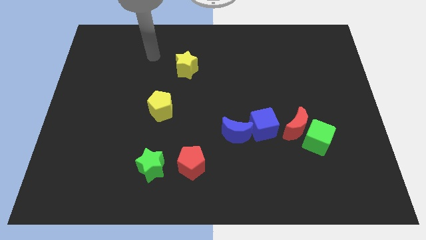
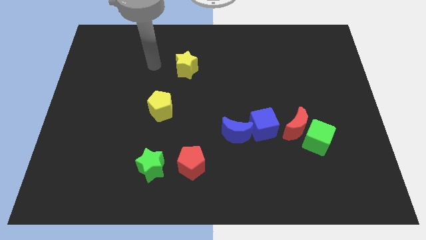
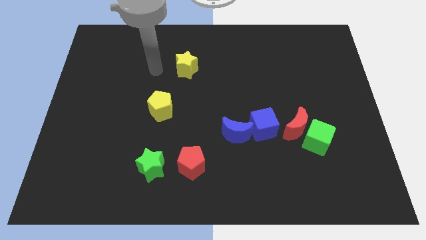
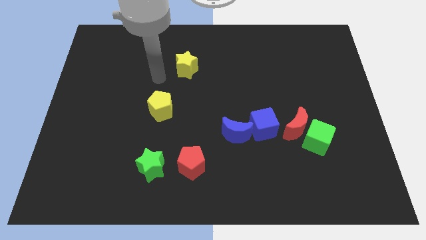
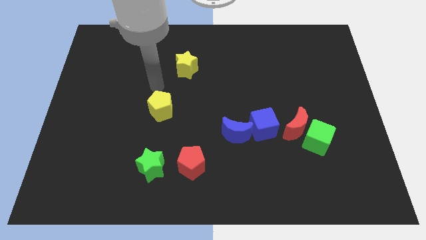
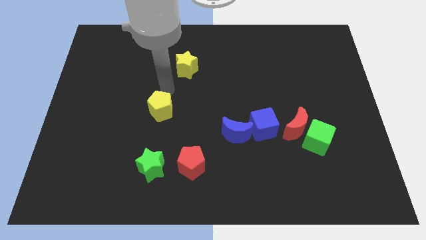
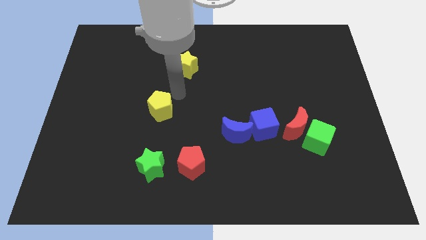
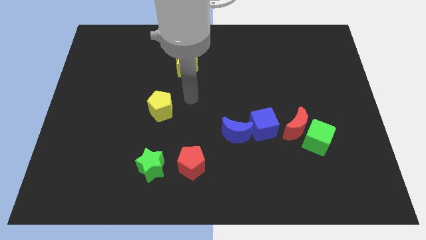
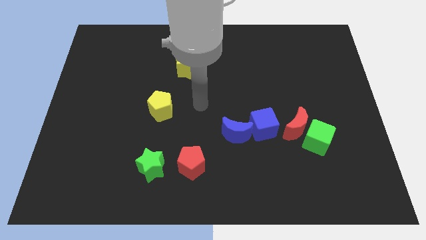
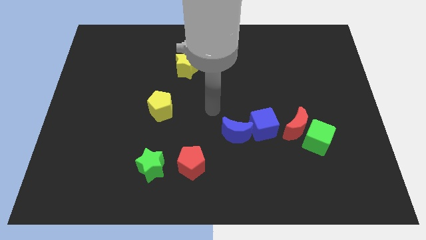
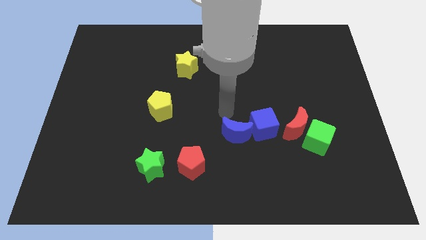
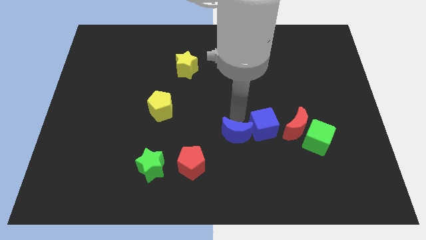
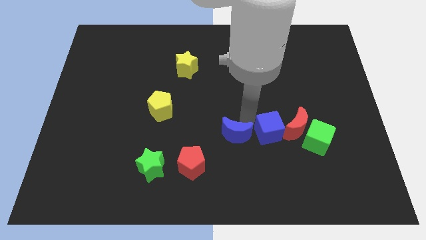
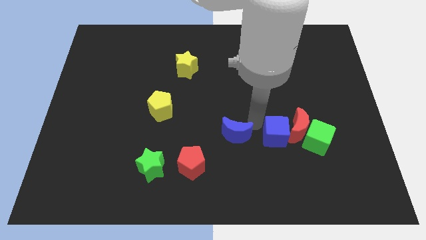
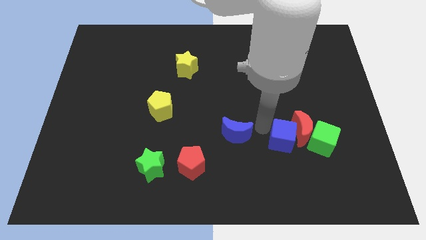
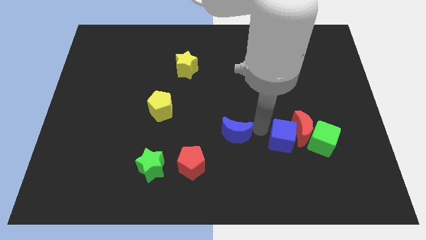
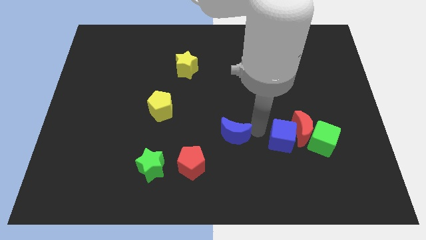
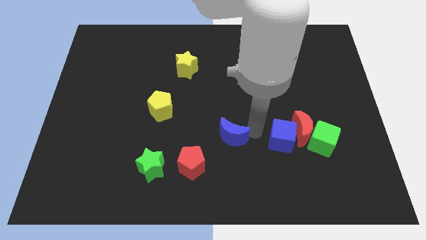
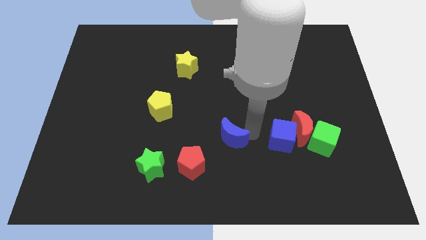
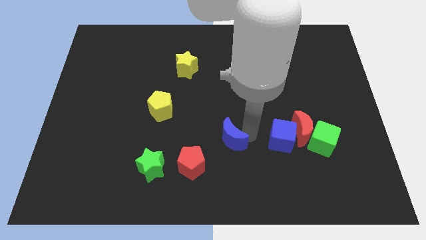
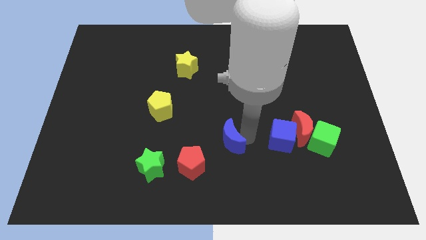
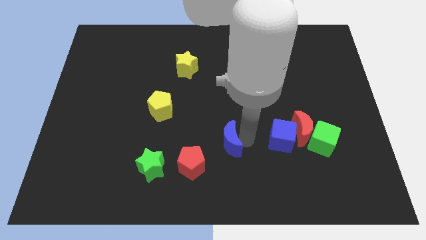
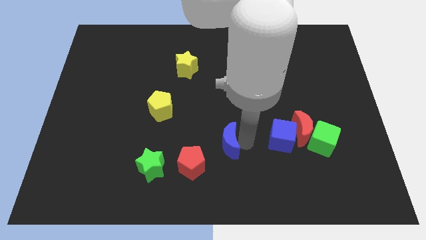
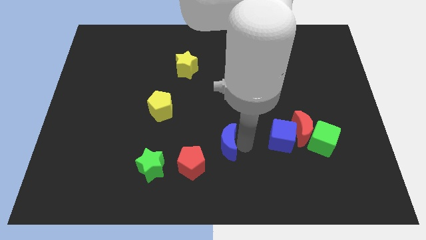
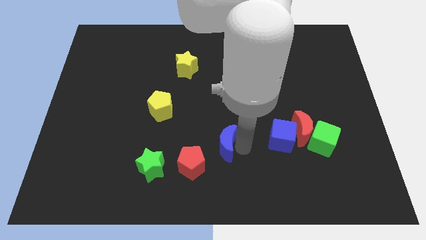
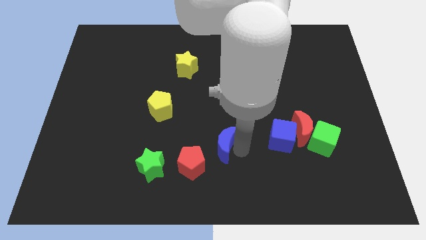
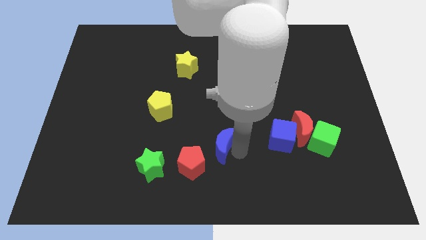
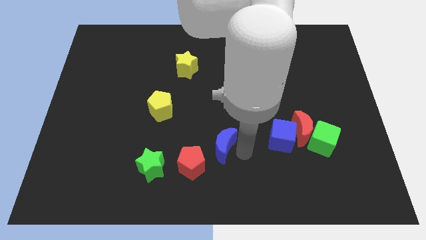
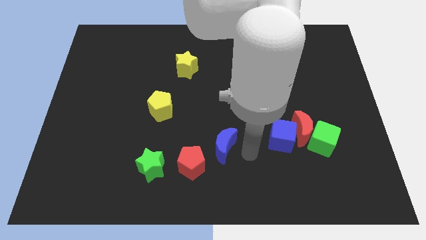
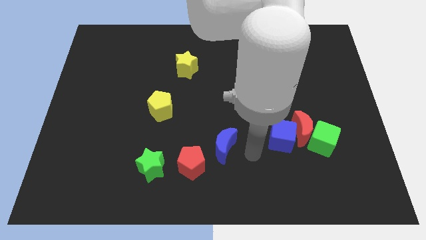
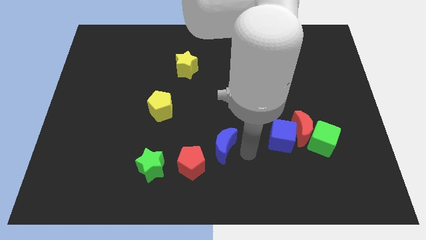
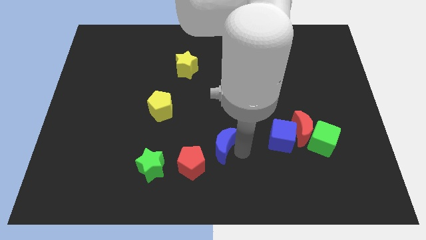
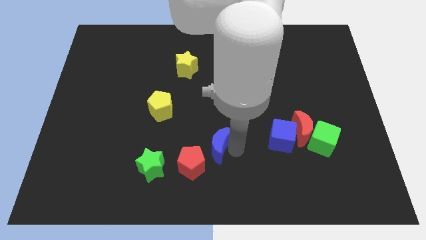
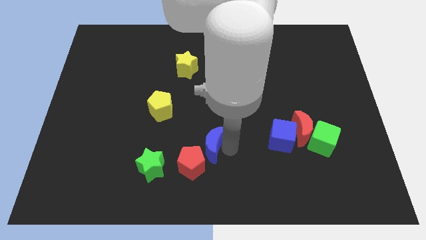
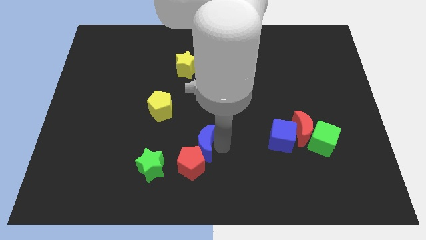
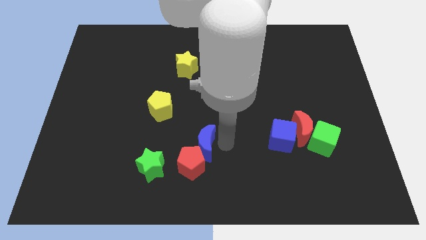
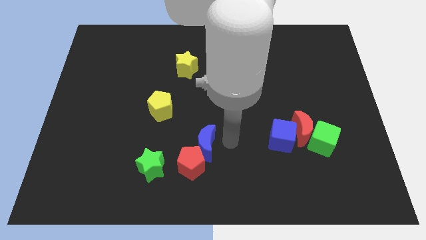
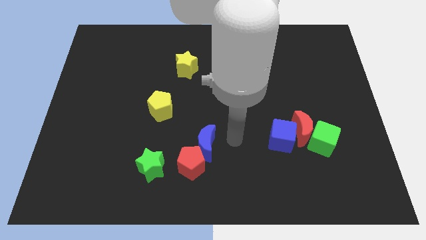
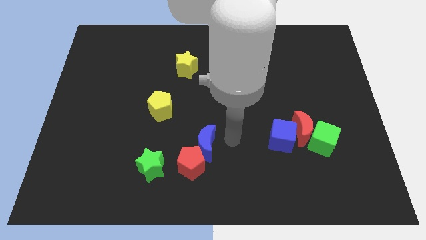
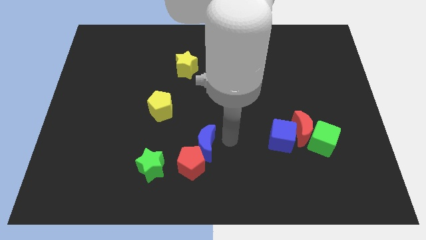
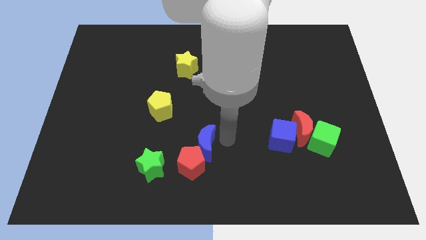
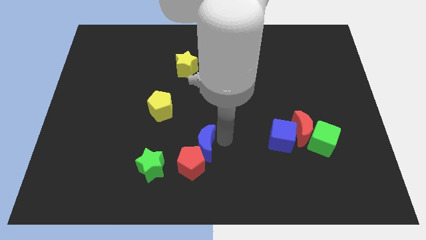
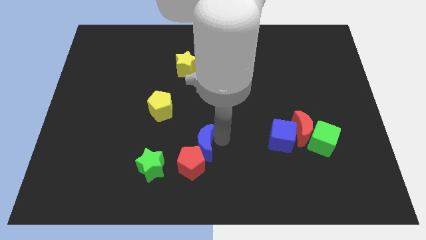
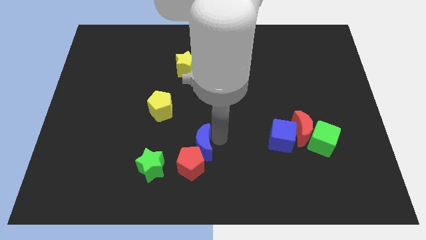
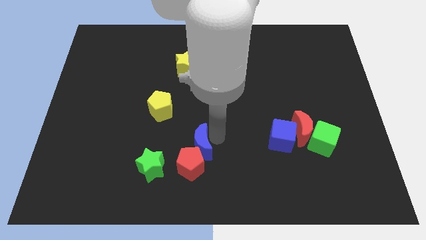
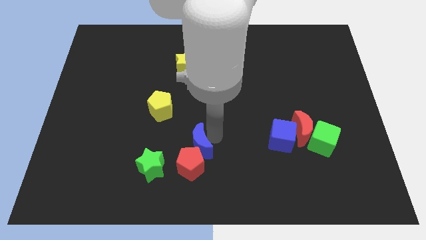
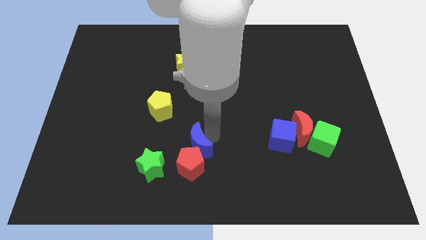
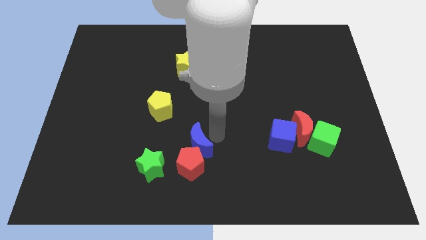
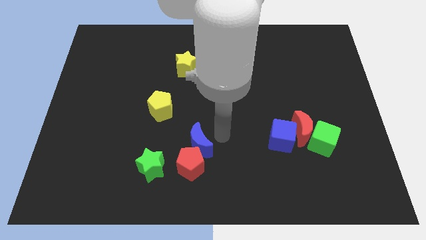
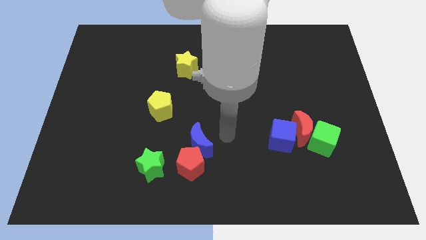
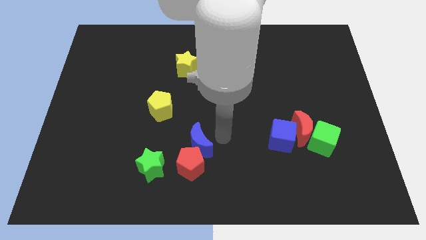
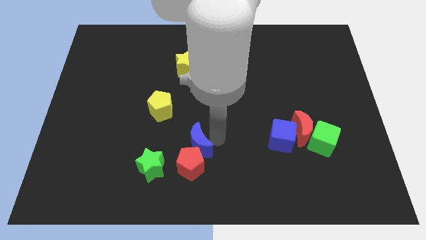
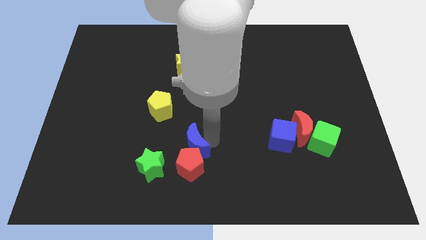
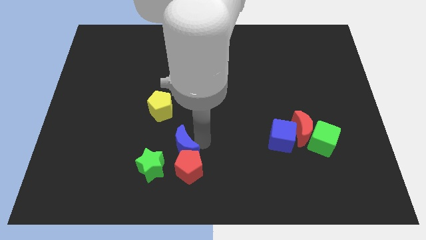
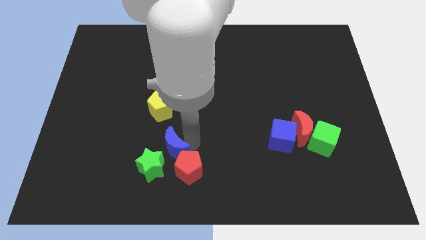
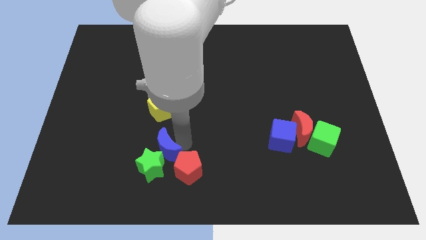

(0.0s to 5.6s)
slide the blue moon close to the green star

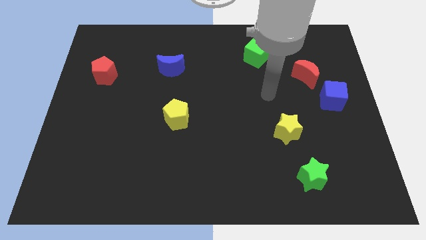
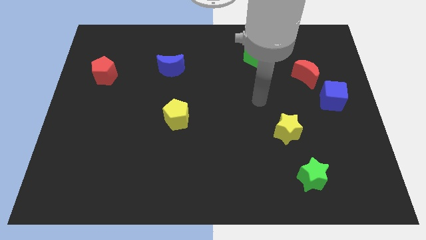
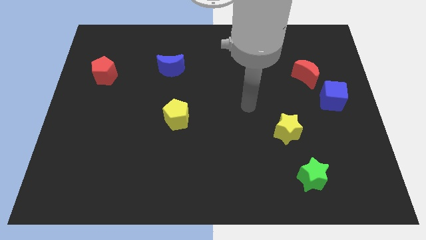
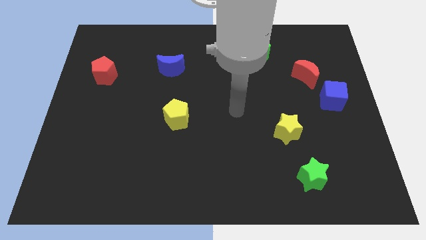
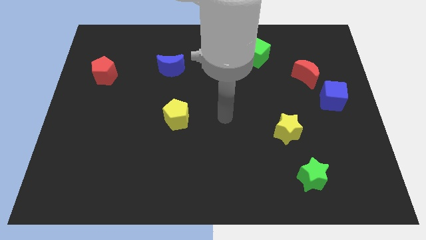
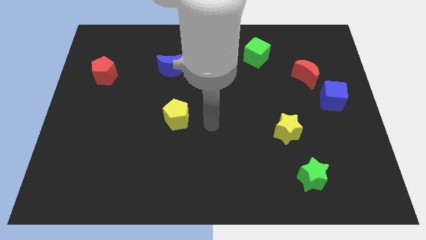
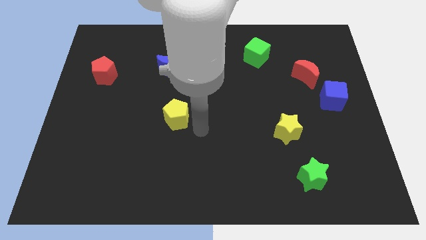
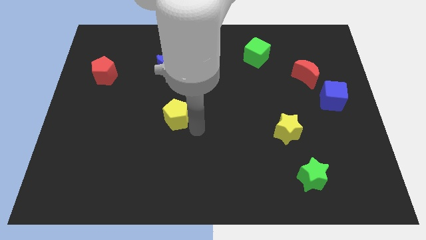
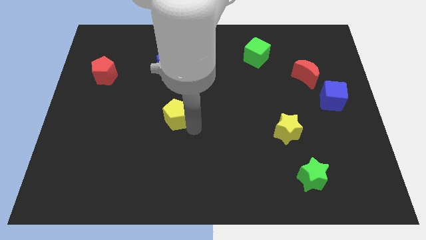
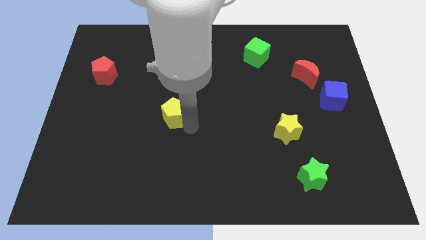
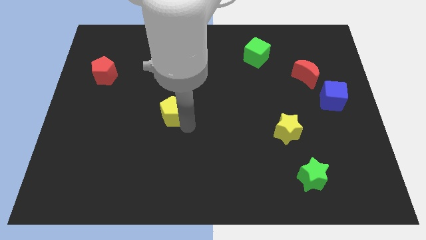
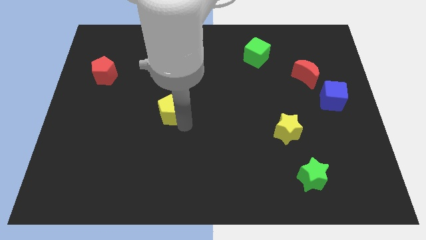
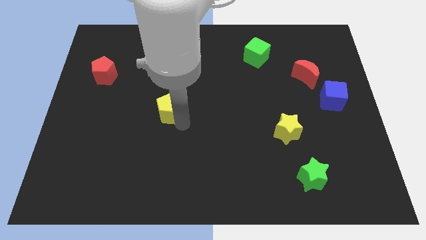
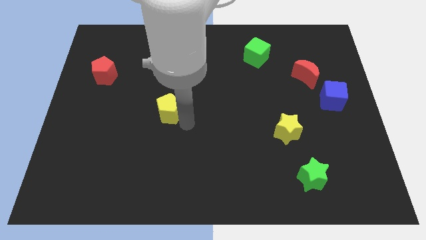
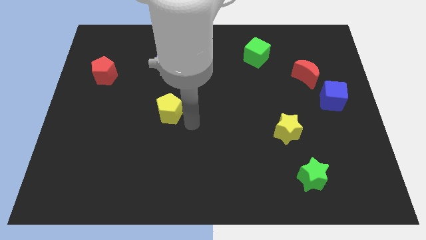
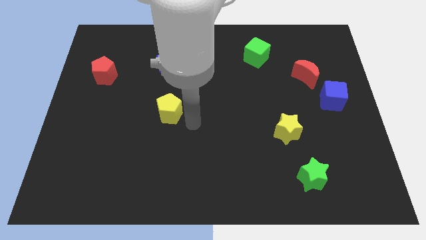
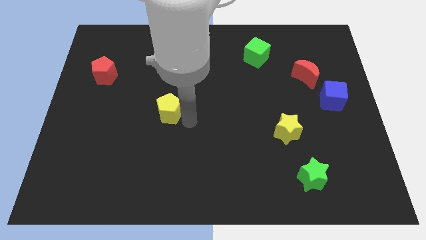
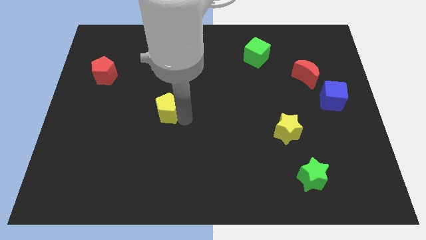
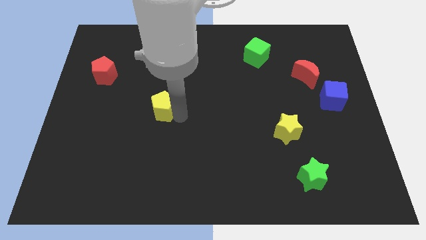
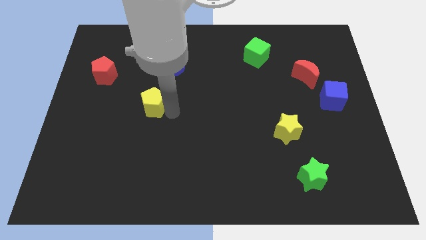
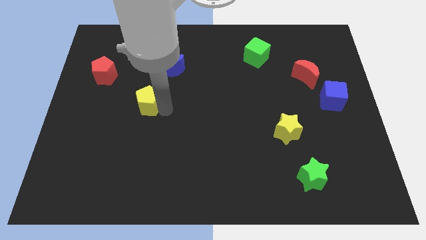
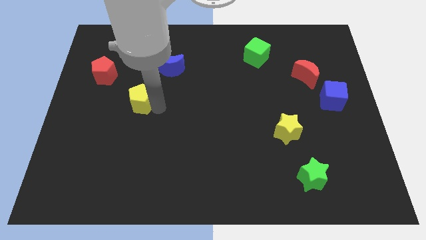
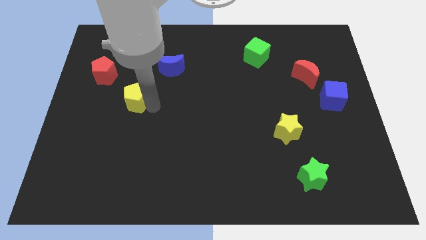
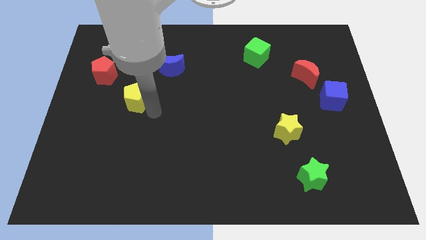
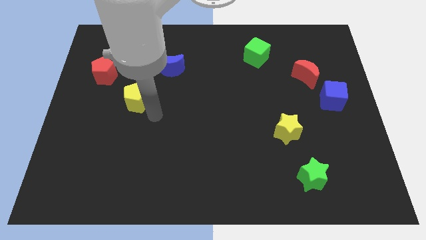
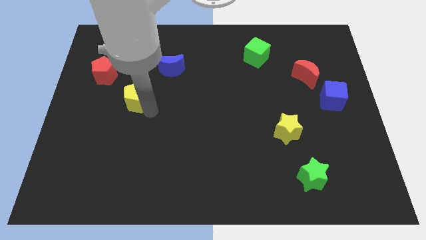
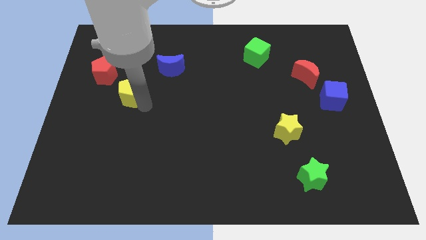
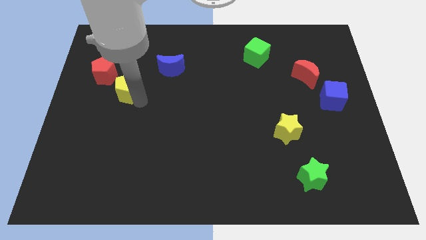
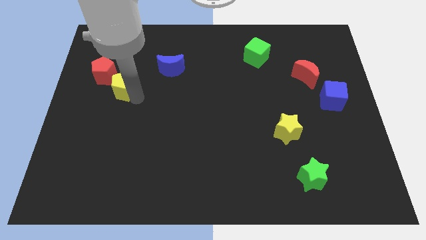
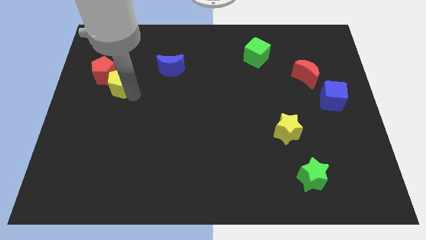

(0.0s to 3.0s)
push the yellow pentagon towards the red pentagon
